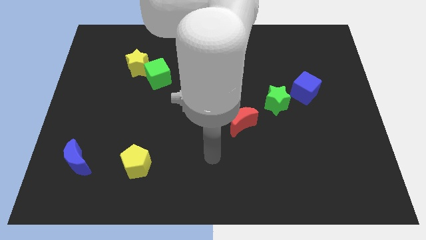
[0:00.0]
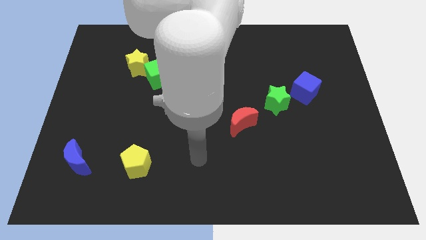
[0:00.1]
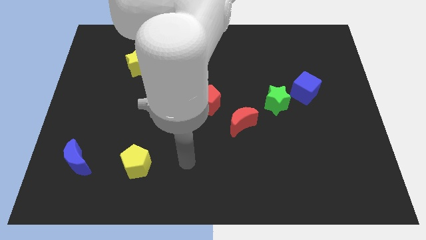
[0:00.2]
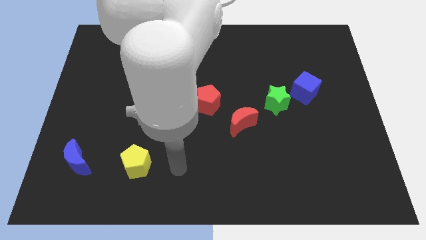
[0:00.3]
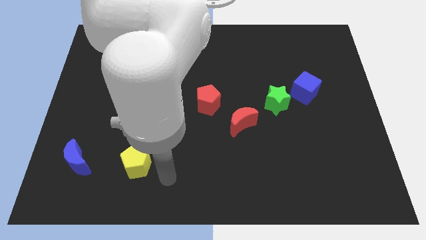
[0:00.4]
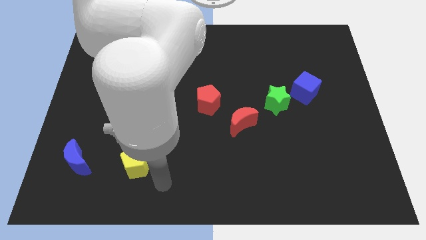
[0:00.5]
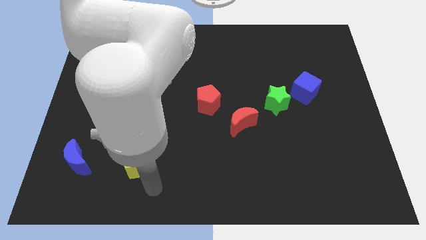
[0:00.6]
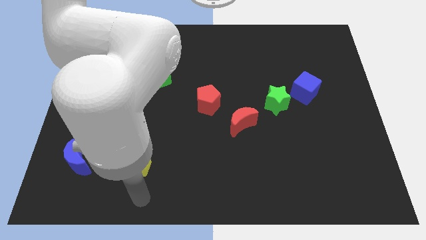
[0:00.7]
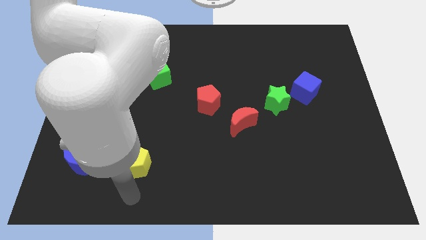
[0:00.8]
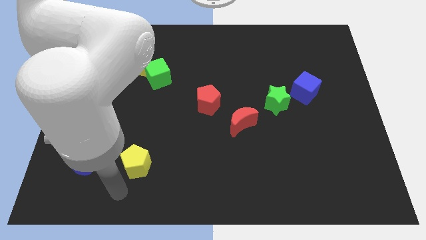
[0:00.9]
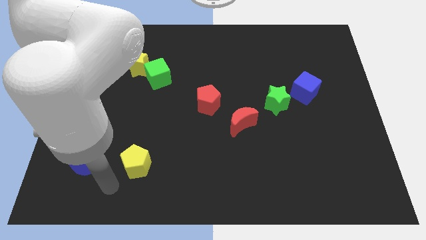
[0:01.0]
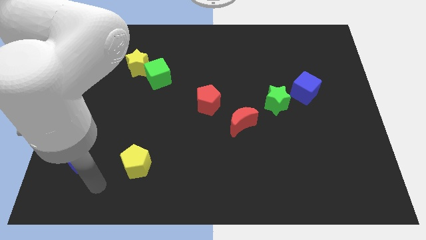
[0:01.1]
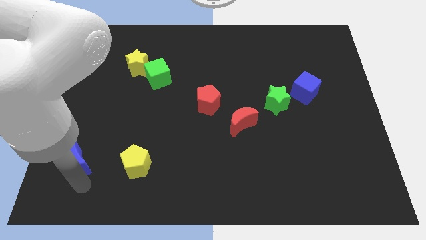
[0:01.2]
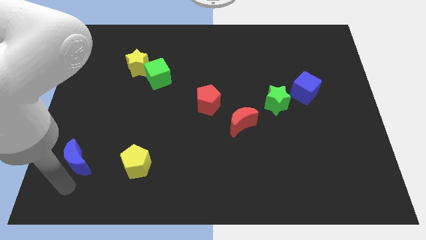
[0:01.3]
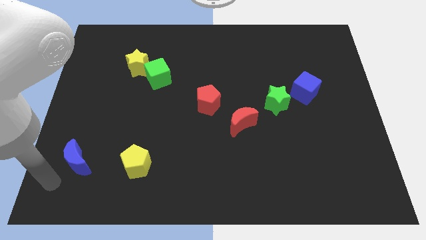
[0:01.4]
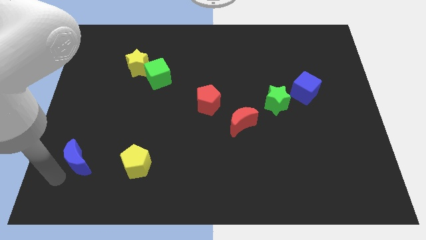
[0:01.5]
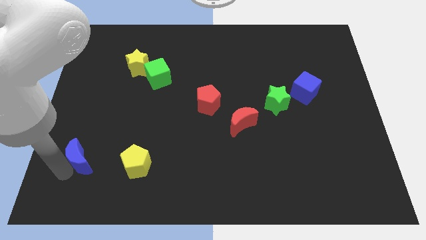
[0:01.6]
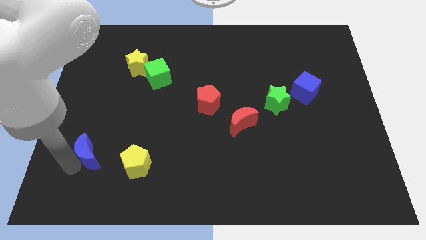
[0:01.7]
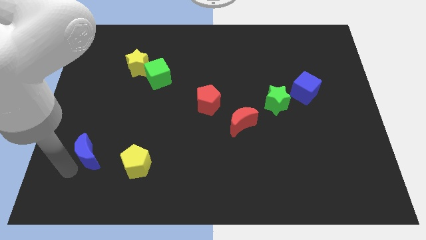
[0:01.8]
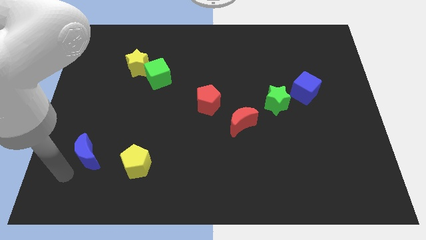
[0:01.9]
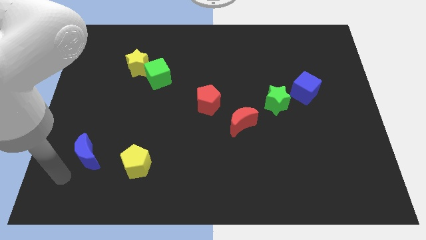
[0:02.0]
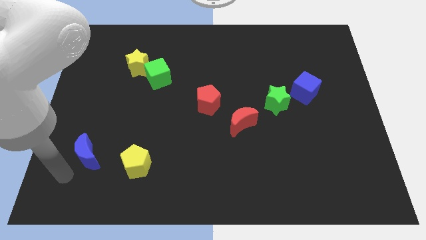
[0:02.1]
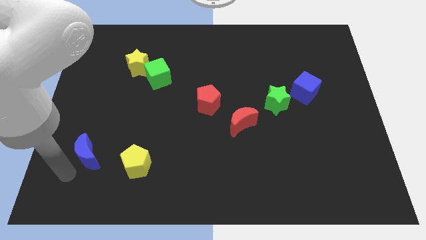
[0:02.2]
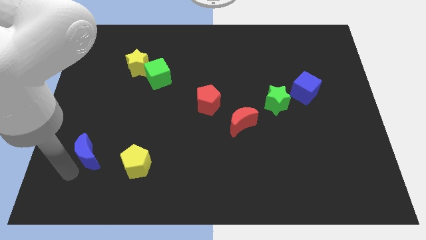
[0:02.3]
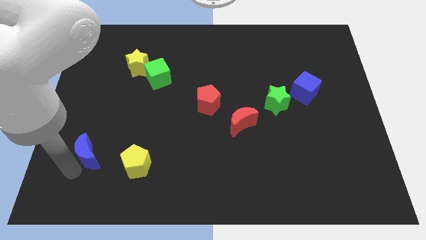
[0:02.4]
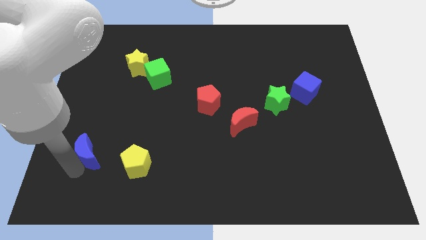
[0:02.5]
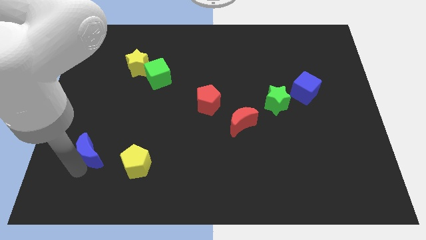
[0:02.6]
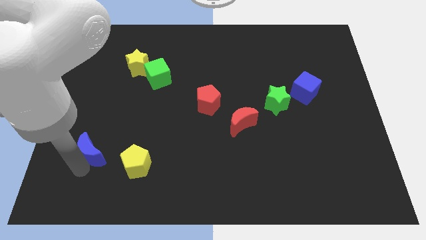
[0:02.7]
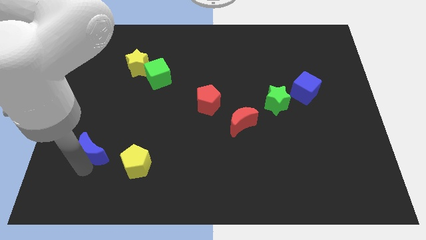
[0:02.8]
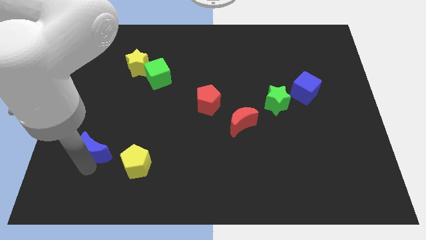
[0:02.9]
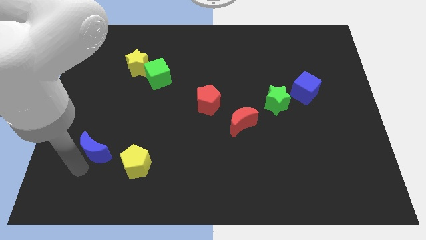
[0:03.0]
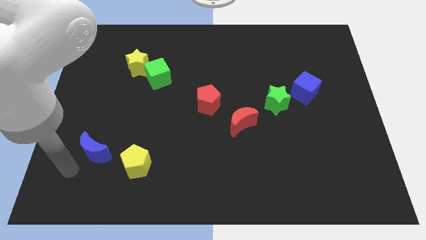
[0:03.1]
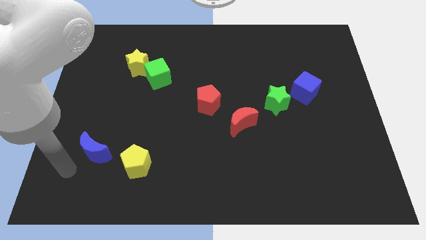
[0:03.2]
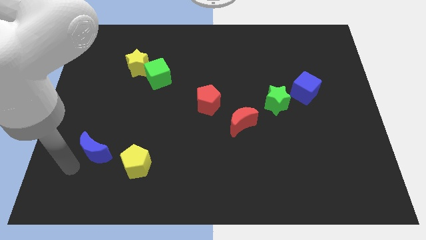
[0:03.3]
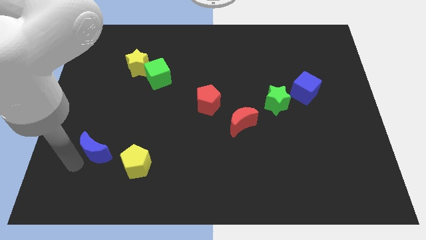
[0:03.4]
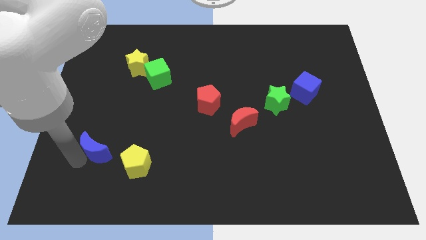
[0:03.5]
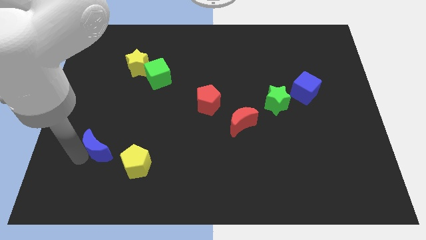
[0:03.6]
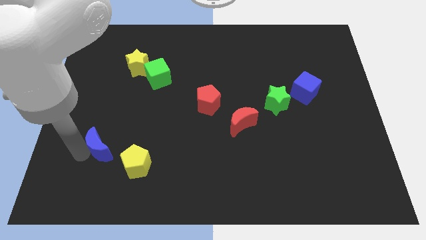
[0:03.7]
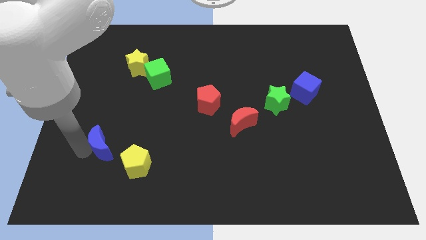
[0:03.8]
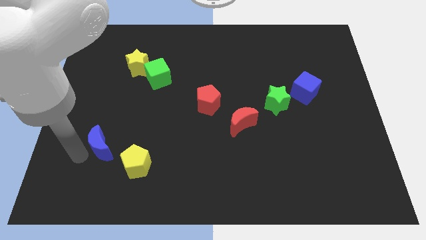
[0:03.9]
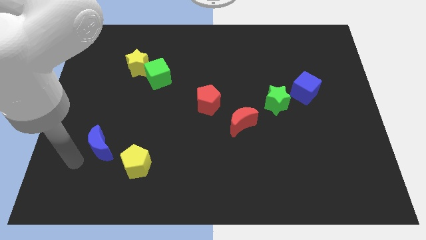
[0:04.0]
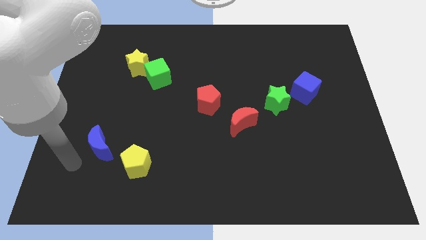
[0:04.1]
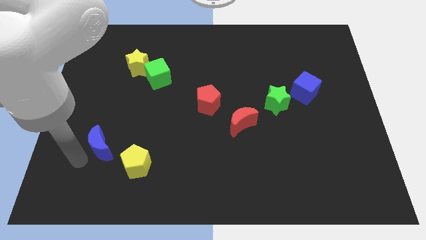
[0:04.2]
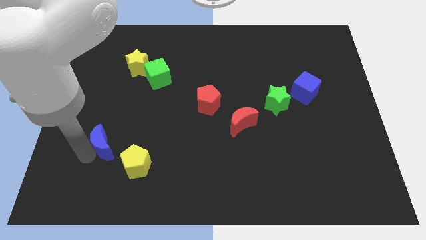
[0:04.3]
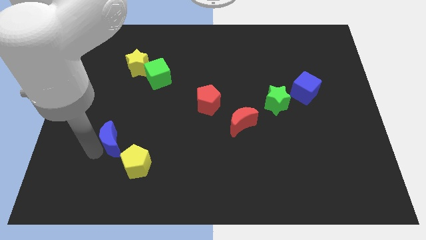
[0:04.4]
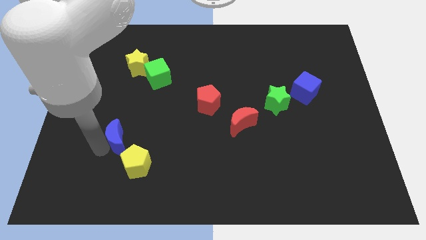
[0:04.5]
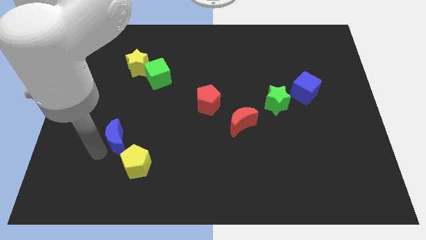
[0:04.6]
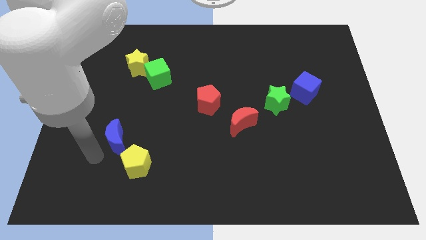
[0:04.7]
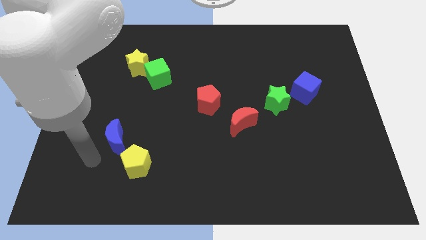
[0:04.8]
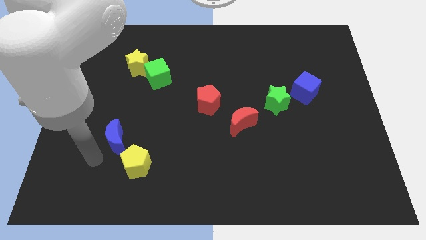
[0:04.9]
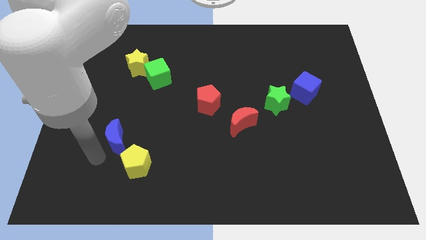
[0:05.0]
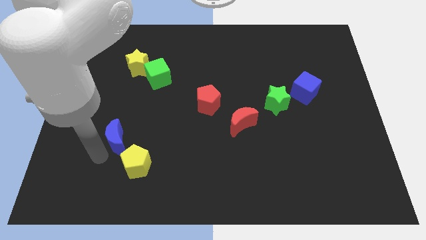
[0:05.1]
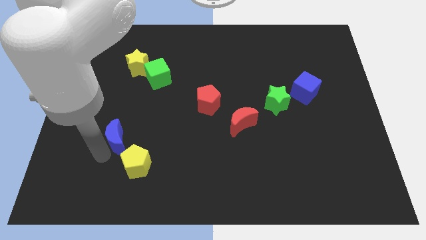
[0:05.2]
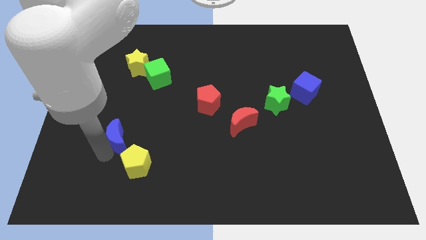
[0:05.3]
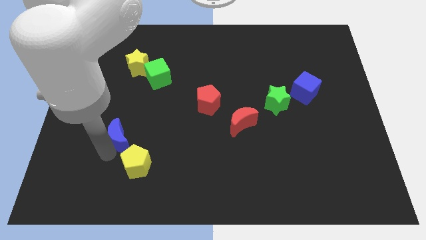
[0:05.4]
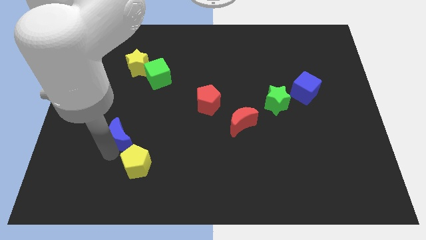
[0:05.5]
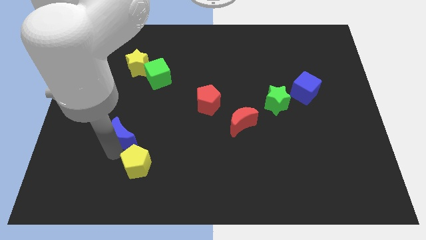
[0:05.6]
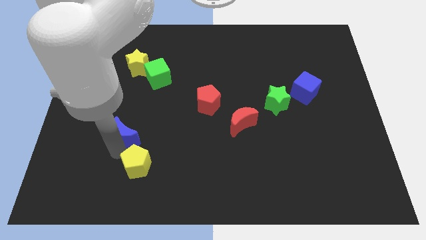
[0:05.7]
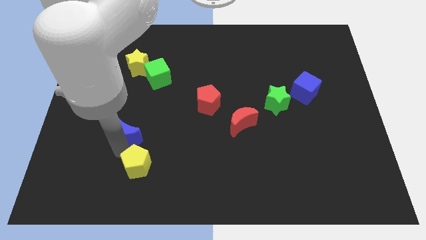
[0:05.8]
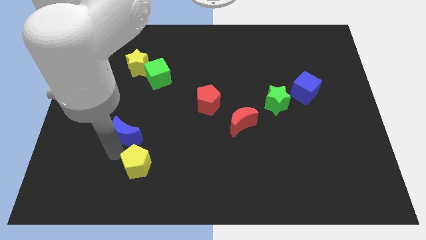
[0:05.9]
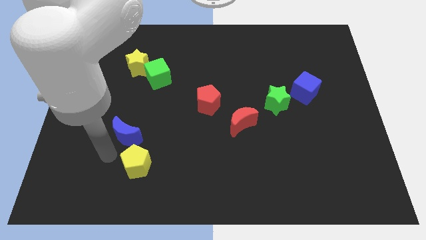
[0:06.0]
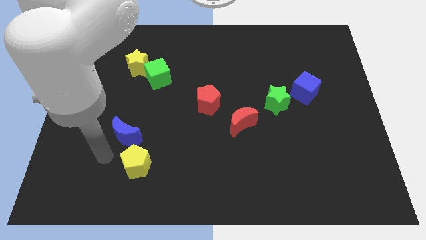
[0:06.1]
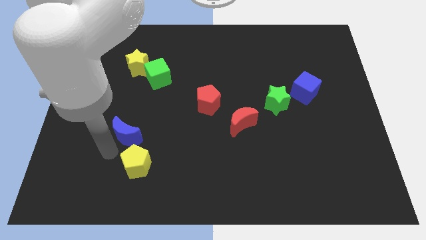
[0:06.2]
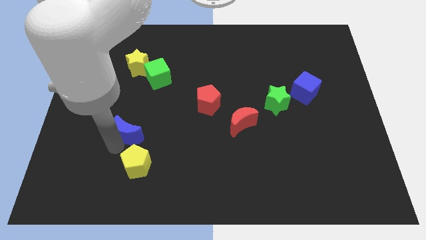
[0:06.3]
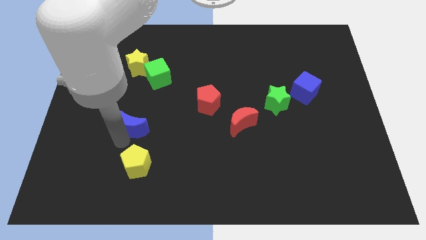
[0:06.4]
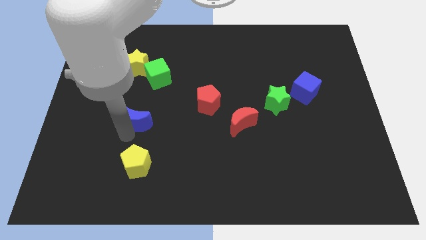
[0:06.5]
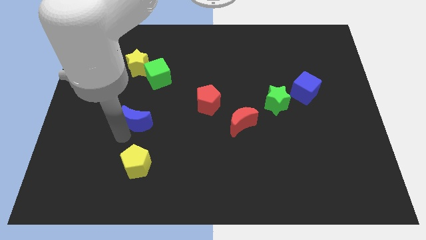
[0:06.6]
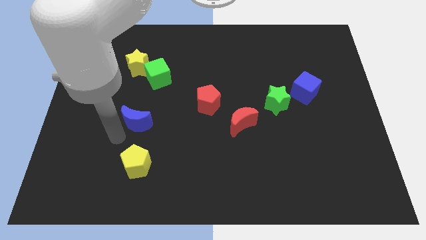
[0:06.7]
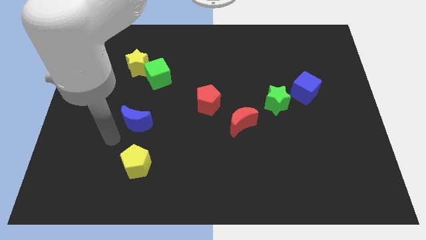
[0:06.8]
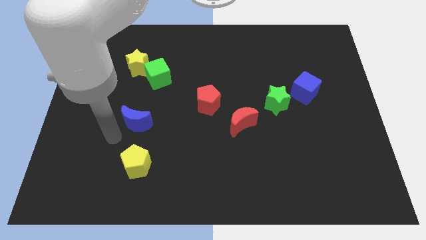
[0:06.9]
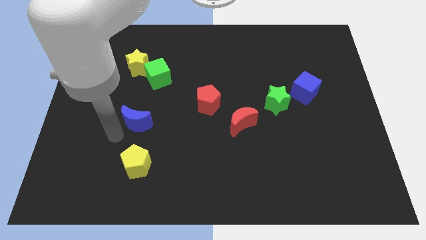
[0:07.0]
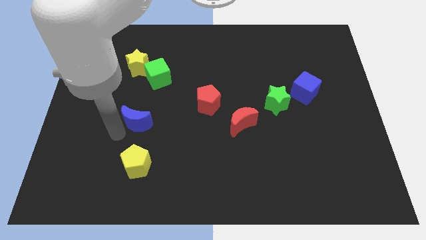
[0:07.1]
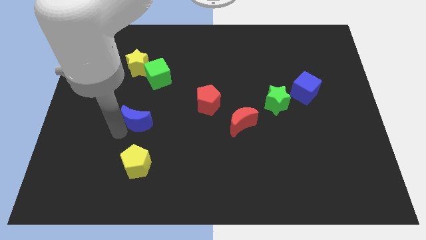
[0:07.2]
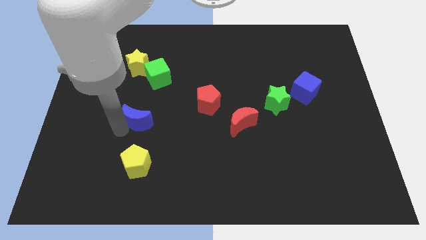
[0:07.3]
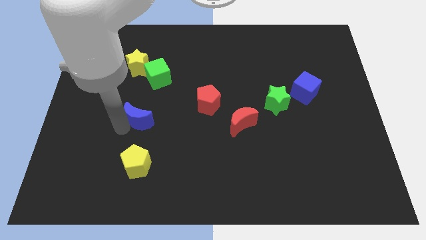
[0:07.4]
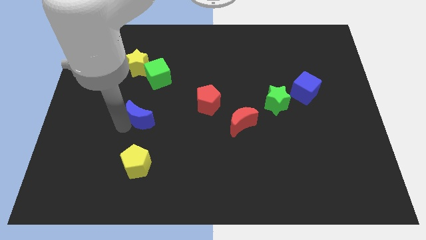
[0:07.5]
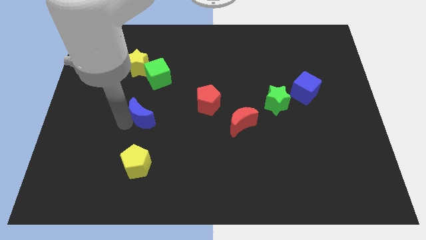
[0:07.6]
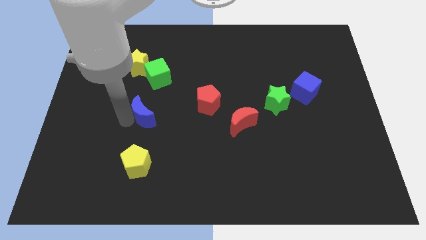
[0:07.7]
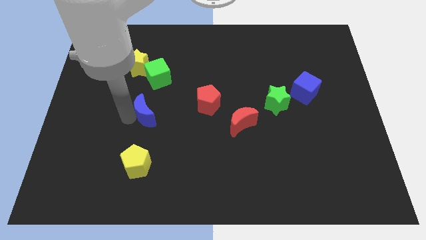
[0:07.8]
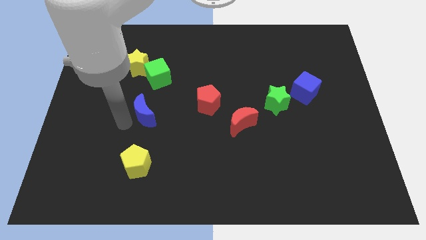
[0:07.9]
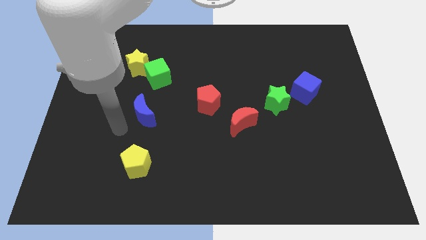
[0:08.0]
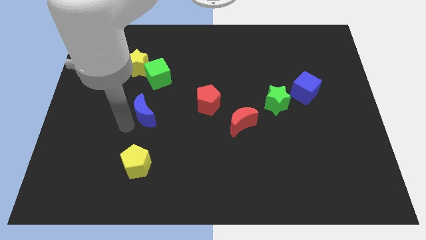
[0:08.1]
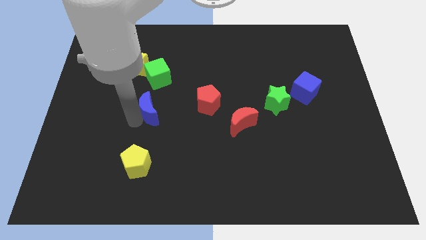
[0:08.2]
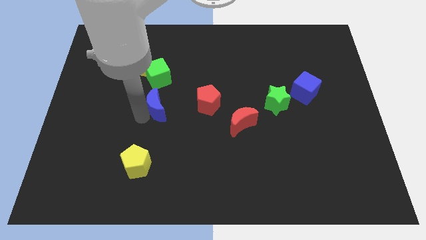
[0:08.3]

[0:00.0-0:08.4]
move the blue moon upwards and to the right diagonally
